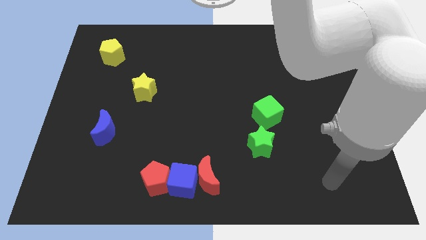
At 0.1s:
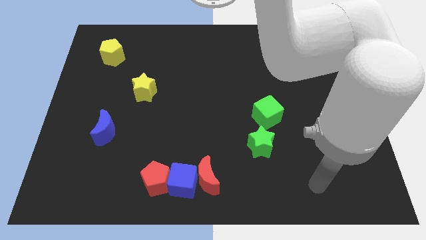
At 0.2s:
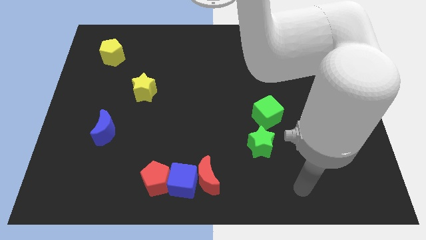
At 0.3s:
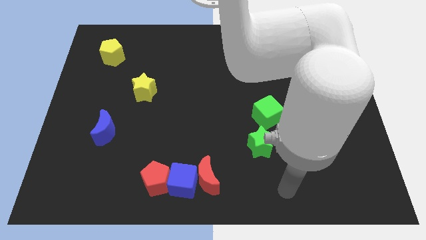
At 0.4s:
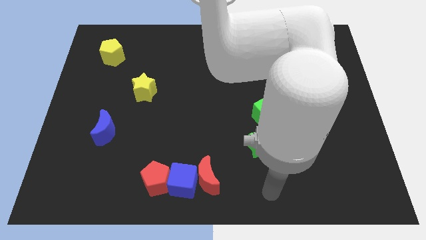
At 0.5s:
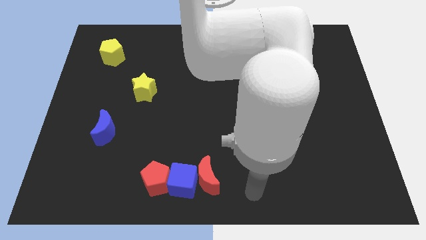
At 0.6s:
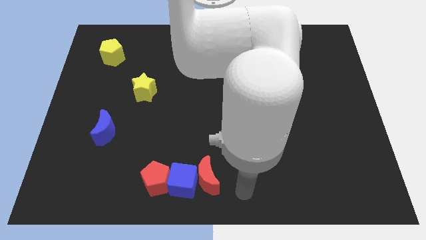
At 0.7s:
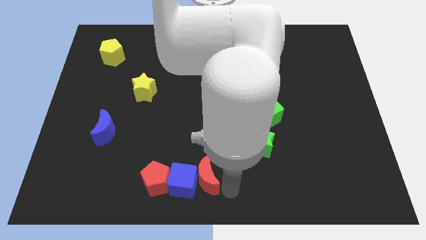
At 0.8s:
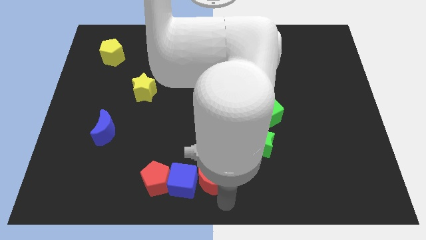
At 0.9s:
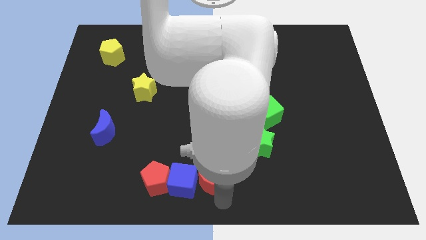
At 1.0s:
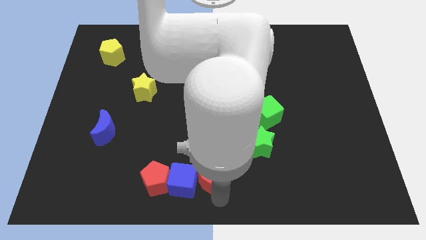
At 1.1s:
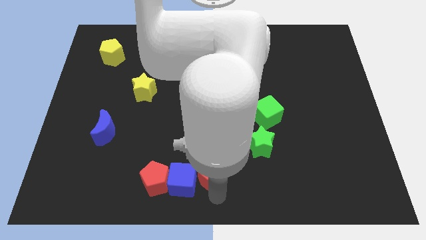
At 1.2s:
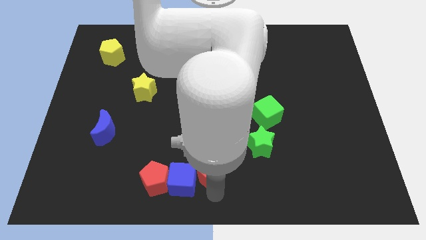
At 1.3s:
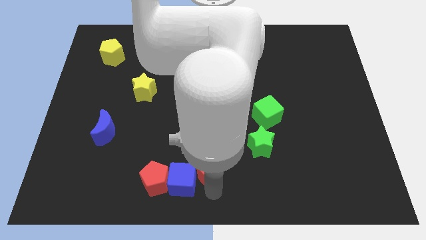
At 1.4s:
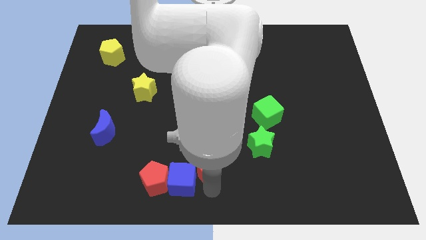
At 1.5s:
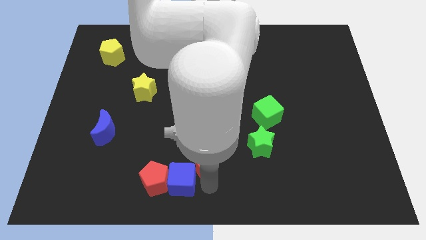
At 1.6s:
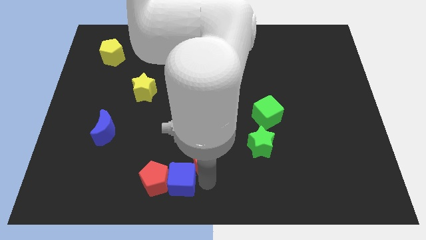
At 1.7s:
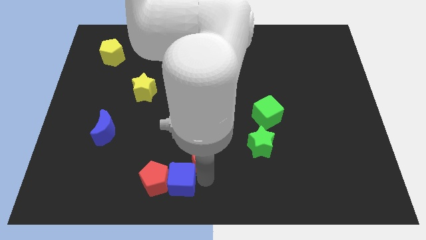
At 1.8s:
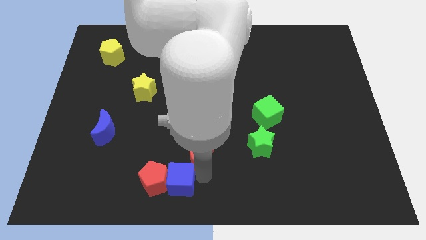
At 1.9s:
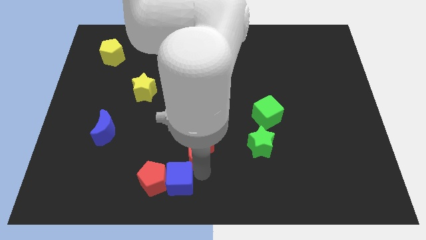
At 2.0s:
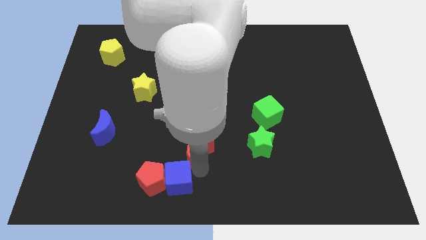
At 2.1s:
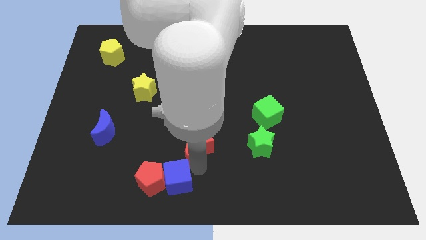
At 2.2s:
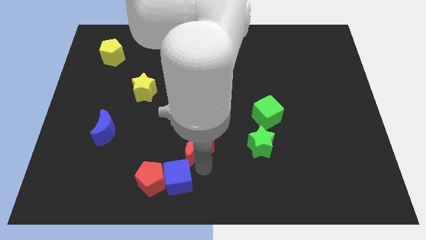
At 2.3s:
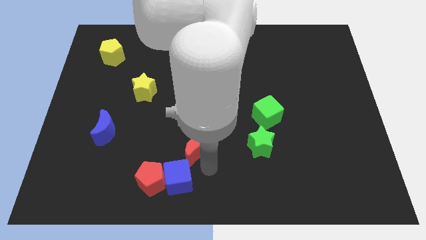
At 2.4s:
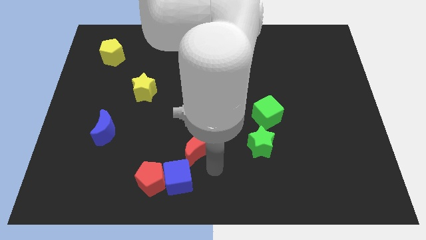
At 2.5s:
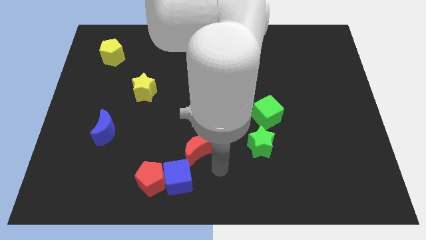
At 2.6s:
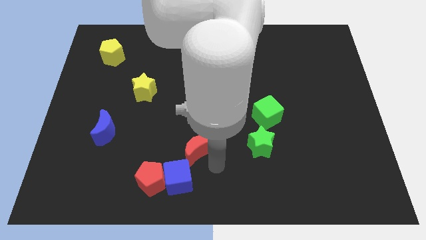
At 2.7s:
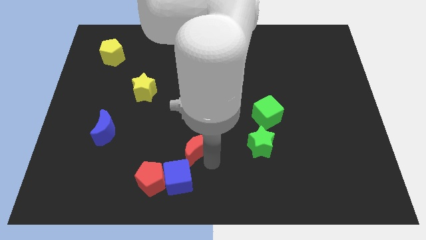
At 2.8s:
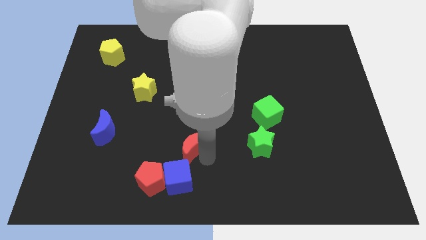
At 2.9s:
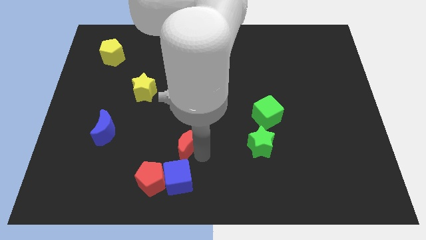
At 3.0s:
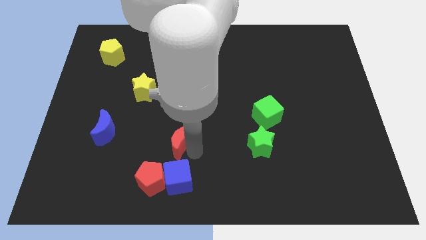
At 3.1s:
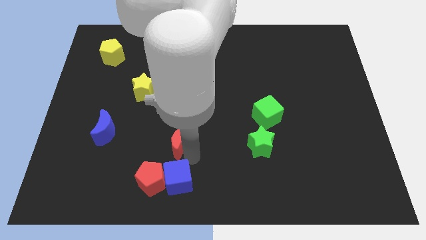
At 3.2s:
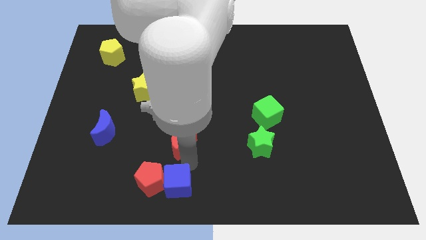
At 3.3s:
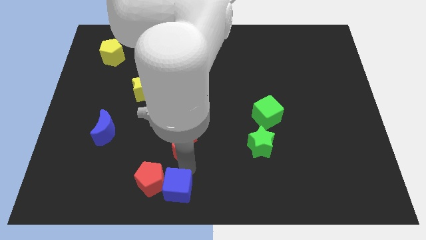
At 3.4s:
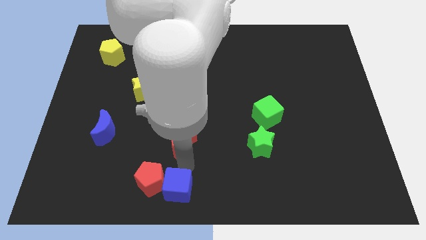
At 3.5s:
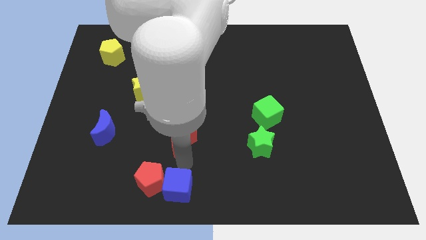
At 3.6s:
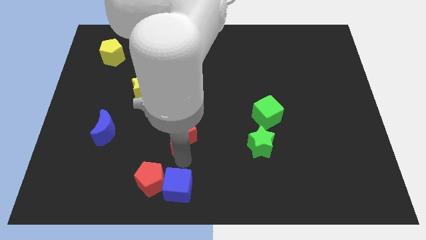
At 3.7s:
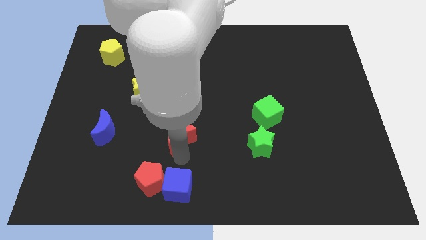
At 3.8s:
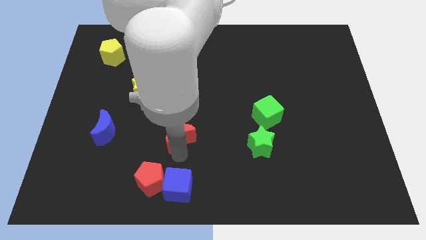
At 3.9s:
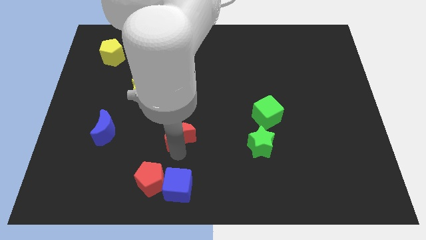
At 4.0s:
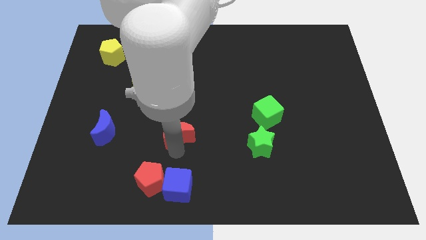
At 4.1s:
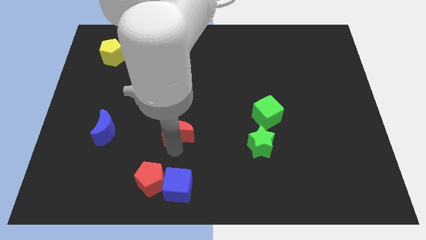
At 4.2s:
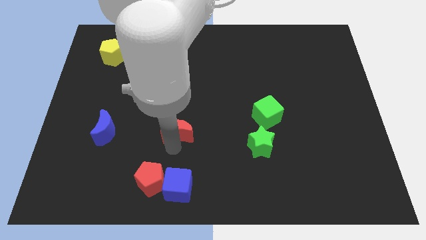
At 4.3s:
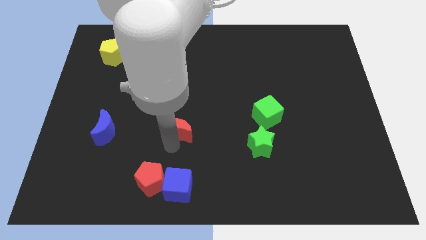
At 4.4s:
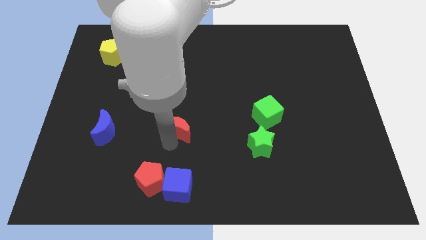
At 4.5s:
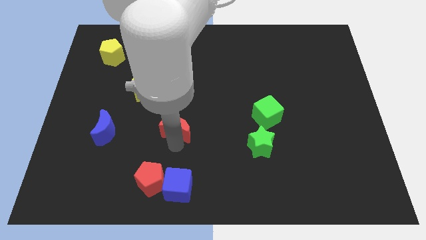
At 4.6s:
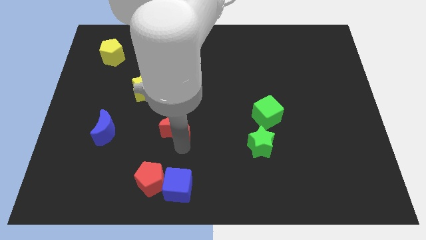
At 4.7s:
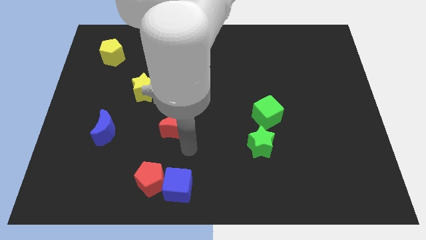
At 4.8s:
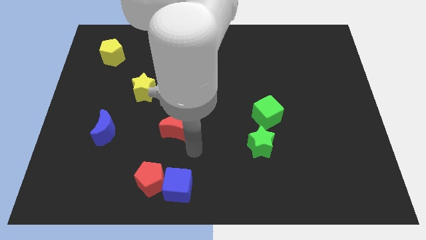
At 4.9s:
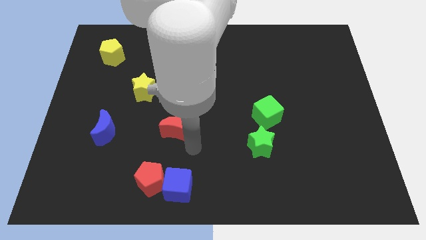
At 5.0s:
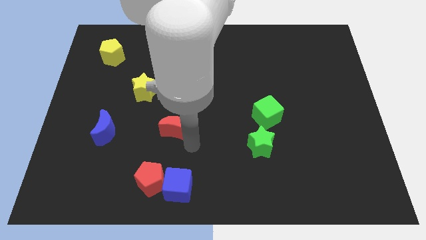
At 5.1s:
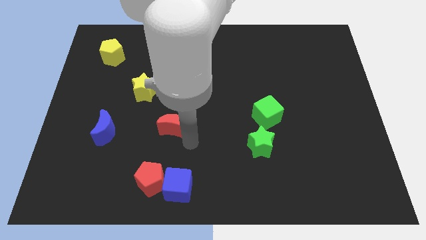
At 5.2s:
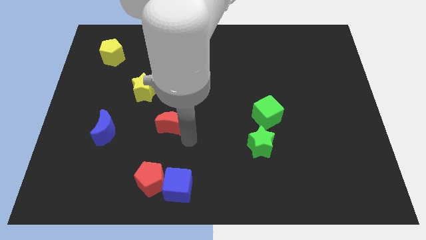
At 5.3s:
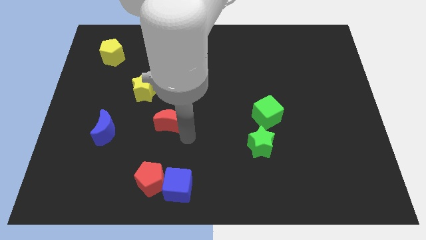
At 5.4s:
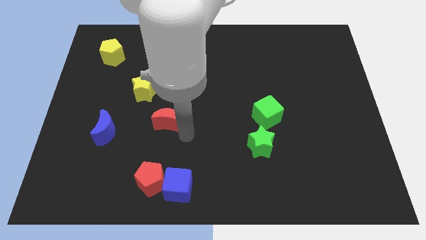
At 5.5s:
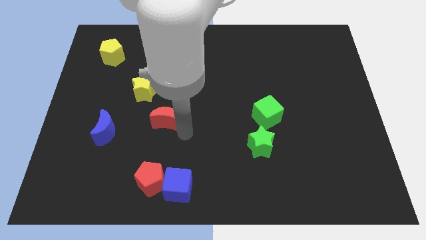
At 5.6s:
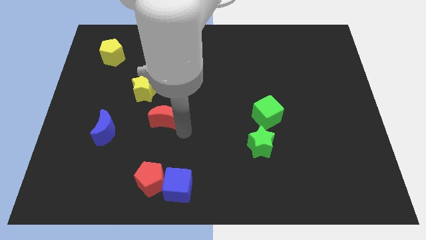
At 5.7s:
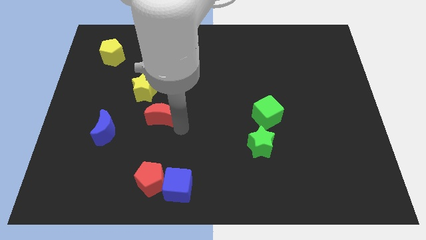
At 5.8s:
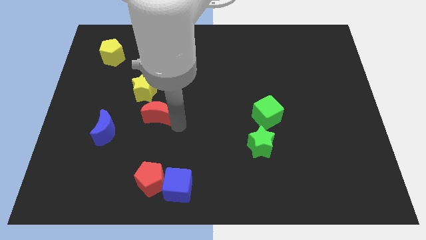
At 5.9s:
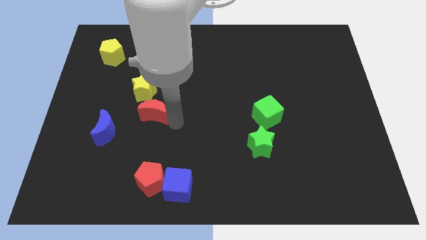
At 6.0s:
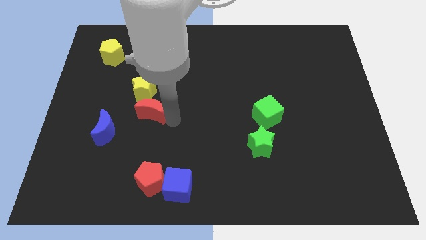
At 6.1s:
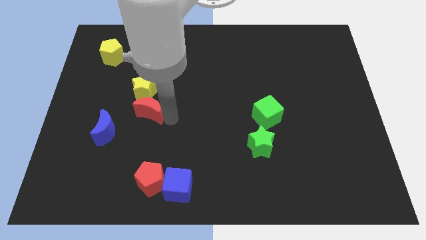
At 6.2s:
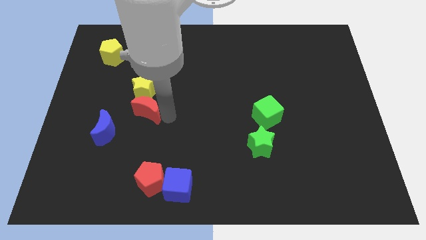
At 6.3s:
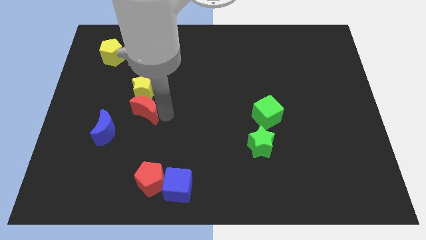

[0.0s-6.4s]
slide the red moon towards the yellow star

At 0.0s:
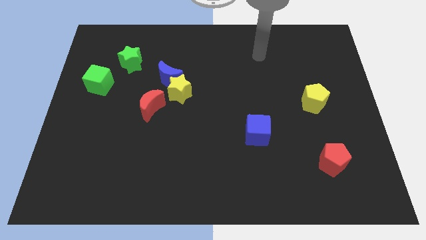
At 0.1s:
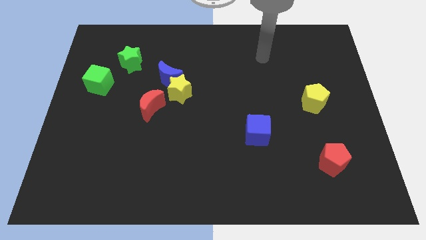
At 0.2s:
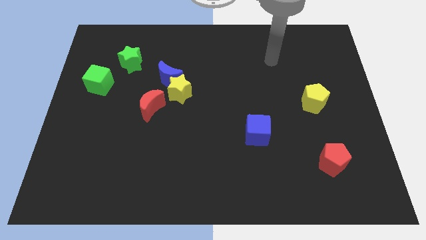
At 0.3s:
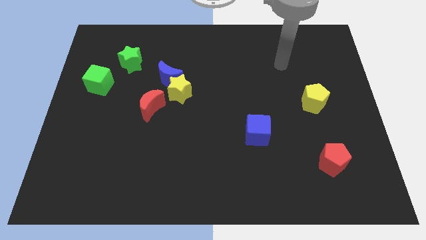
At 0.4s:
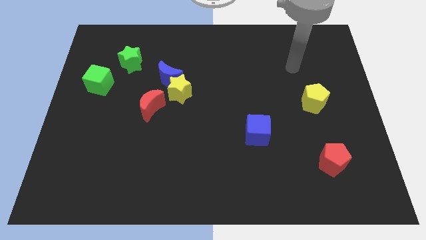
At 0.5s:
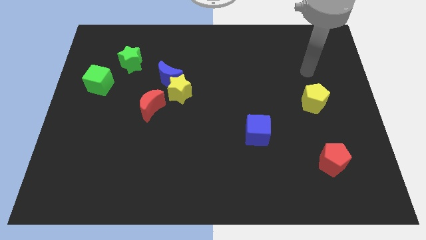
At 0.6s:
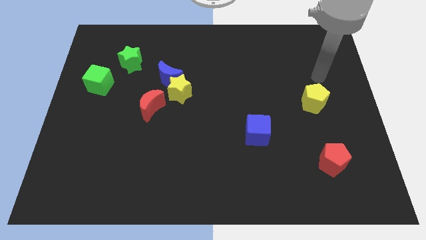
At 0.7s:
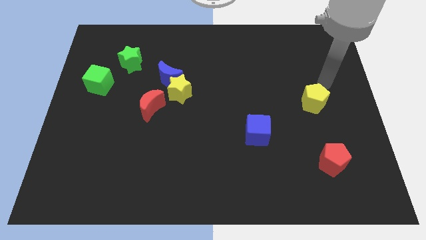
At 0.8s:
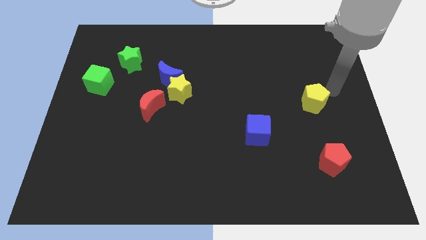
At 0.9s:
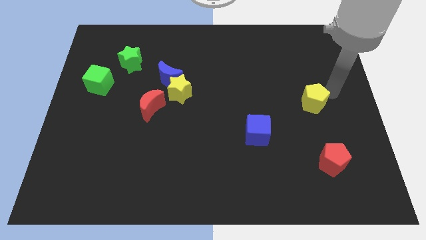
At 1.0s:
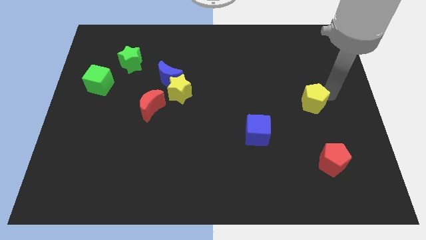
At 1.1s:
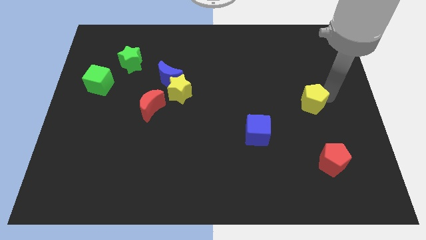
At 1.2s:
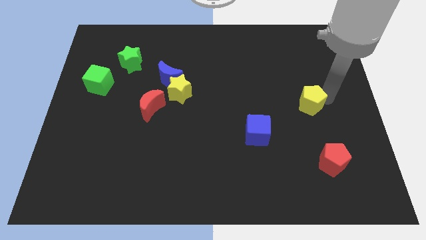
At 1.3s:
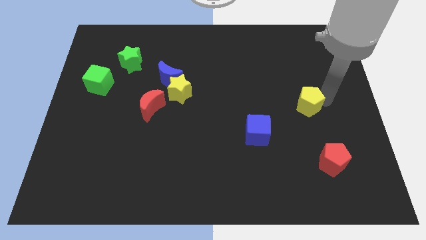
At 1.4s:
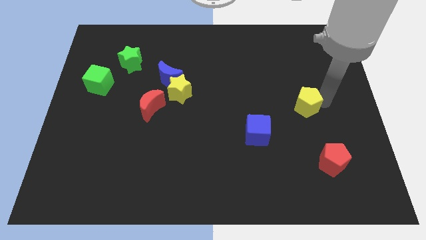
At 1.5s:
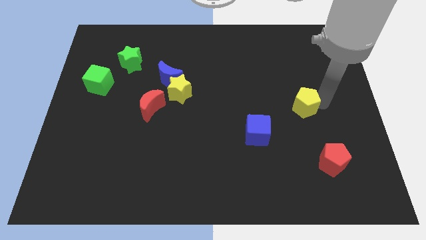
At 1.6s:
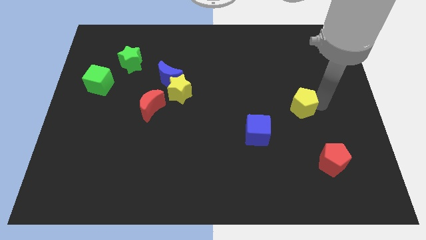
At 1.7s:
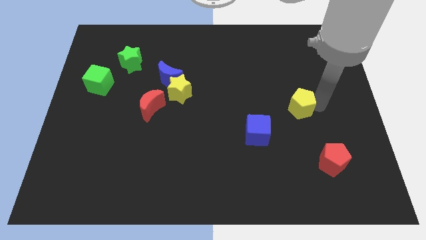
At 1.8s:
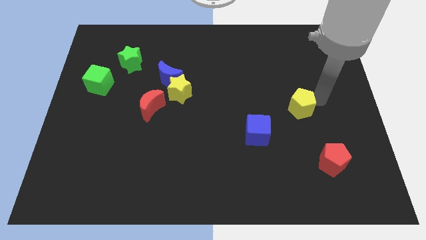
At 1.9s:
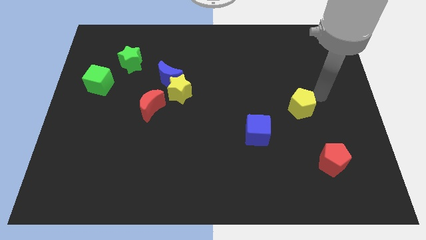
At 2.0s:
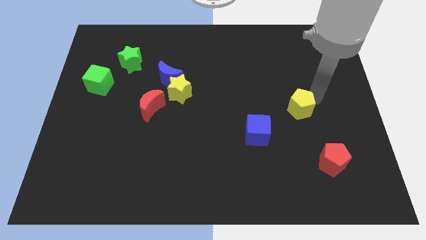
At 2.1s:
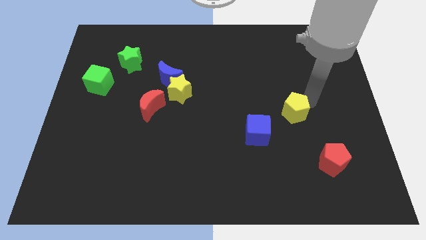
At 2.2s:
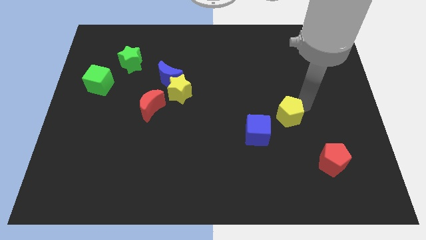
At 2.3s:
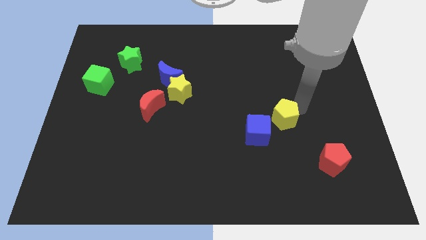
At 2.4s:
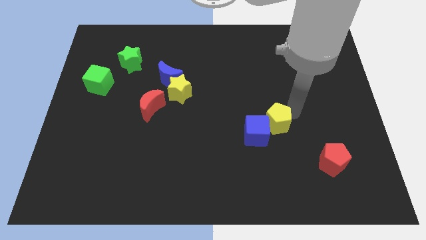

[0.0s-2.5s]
move the yellow pentagon next to the blue cube
